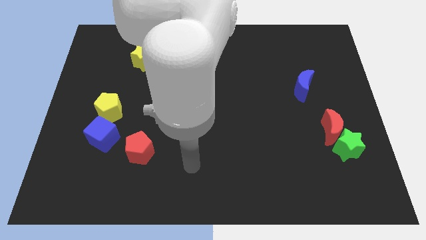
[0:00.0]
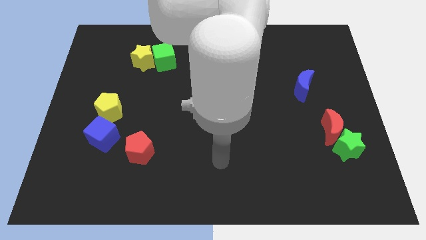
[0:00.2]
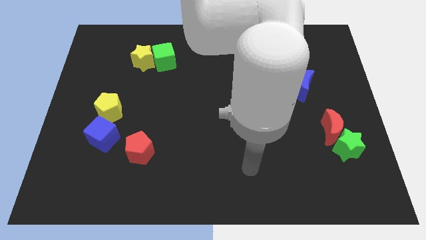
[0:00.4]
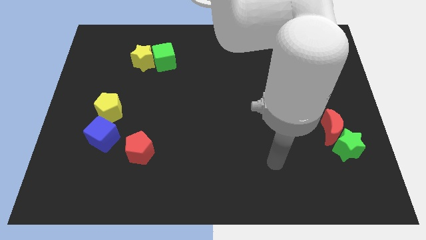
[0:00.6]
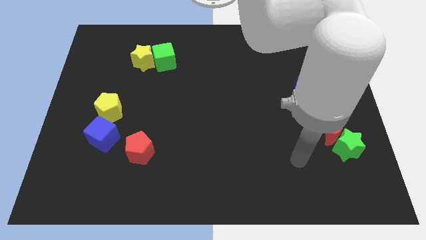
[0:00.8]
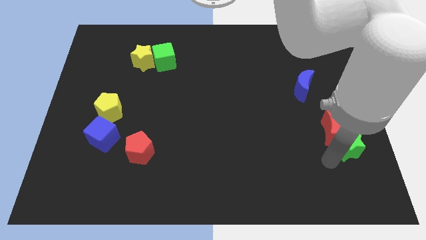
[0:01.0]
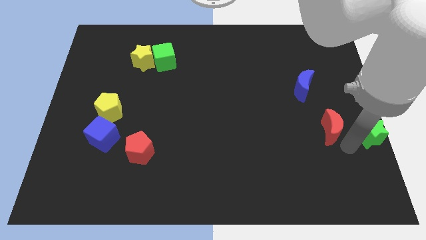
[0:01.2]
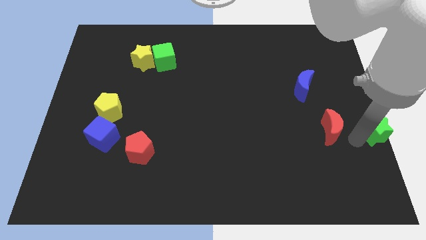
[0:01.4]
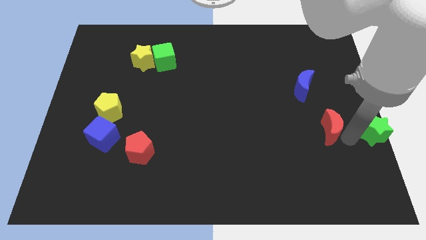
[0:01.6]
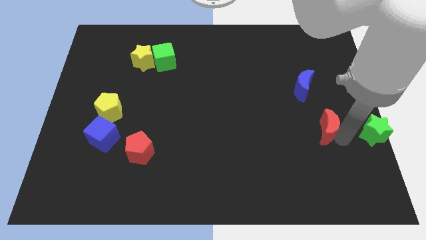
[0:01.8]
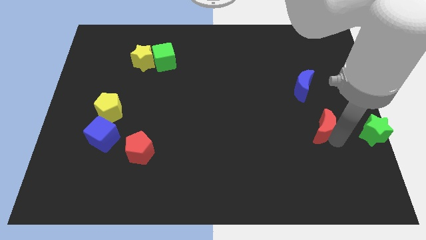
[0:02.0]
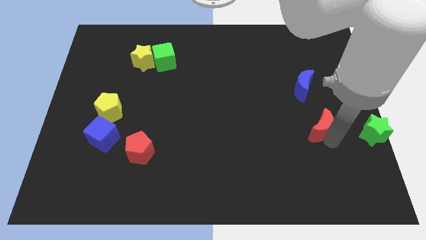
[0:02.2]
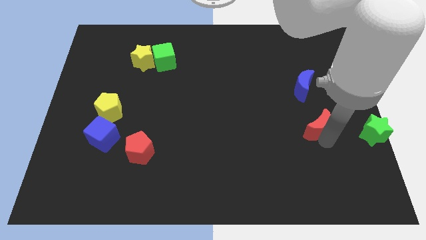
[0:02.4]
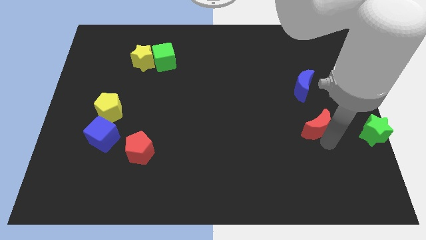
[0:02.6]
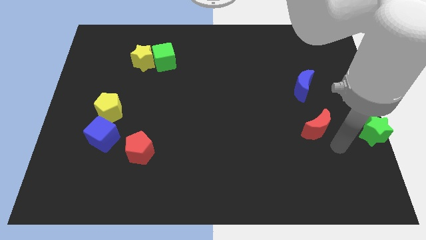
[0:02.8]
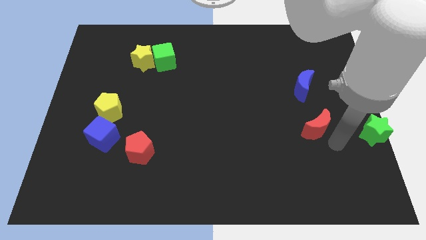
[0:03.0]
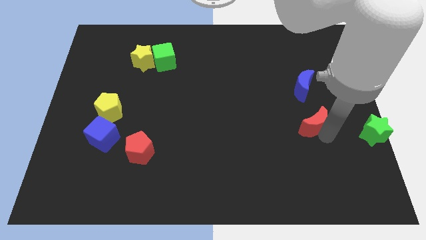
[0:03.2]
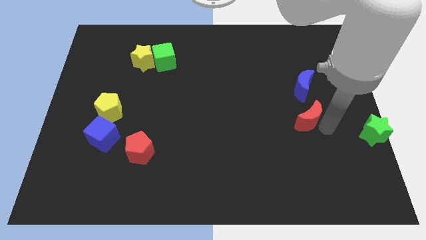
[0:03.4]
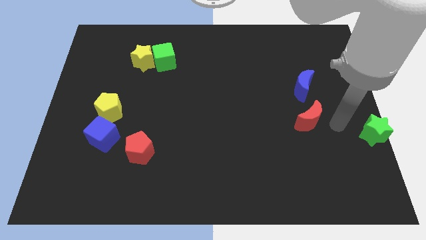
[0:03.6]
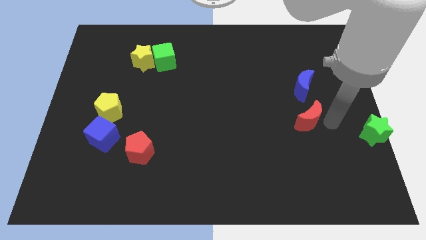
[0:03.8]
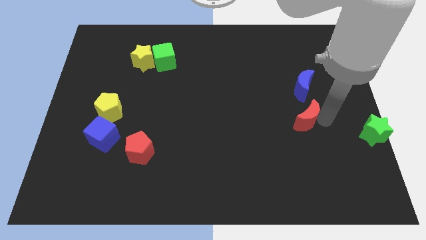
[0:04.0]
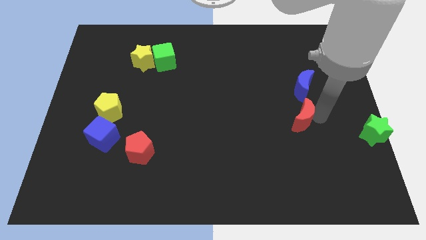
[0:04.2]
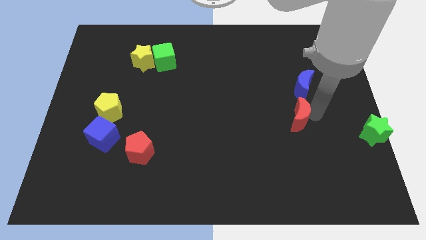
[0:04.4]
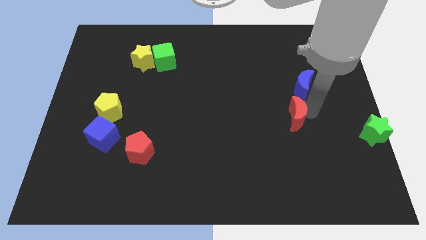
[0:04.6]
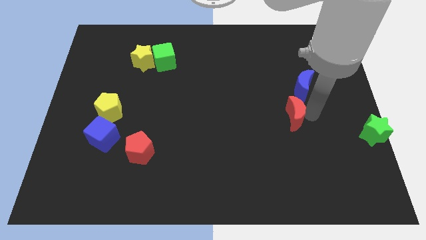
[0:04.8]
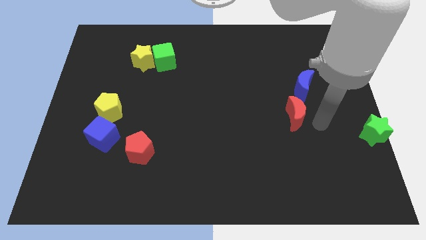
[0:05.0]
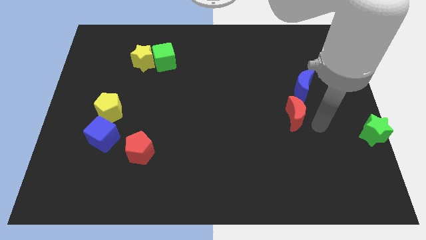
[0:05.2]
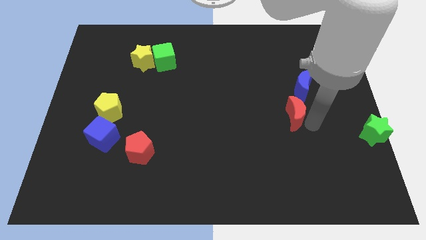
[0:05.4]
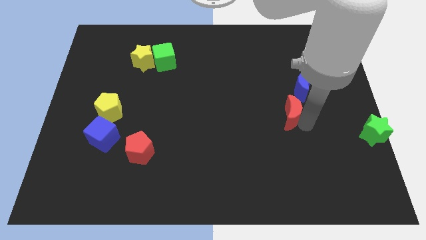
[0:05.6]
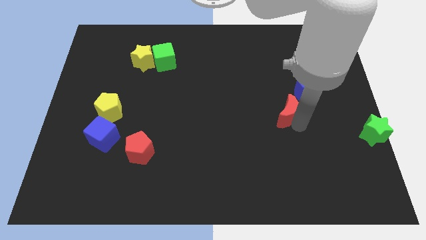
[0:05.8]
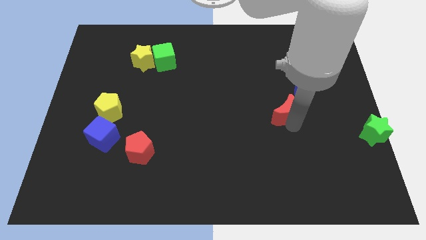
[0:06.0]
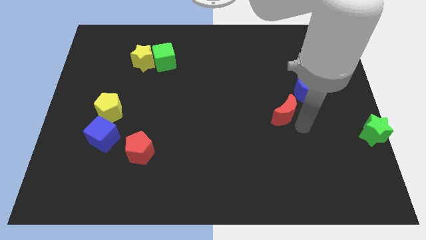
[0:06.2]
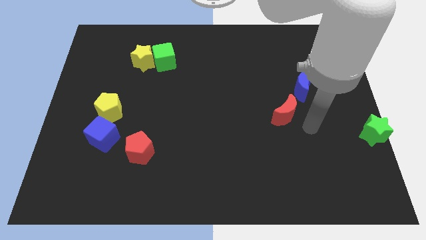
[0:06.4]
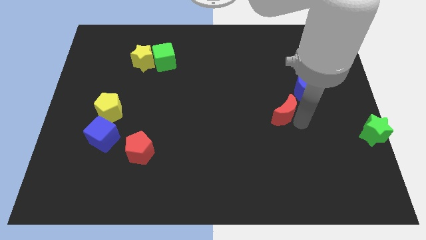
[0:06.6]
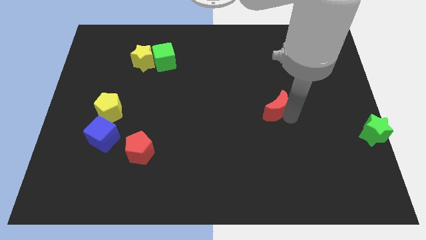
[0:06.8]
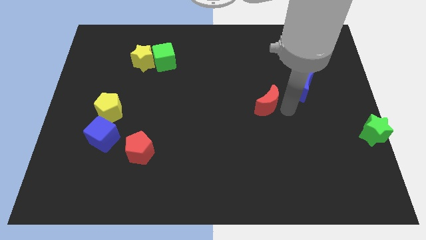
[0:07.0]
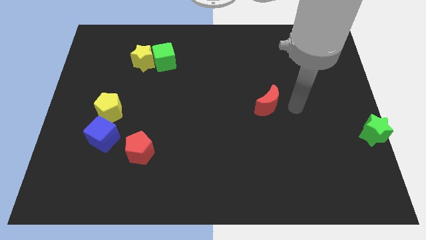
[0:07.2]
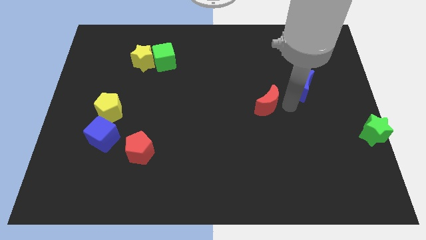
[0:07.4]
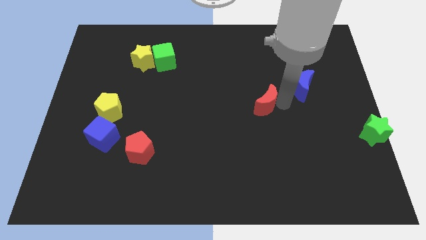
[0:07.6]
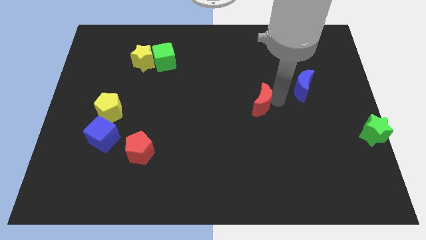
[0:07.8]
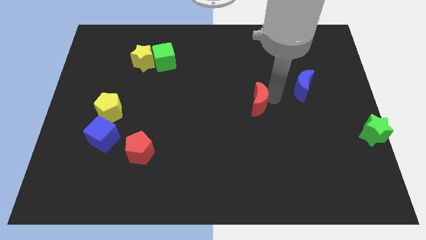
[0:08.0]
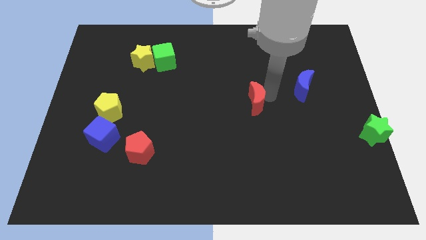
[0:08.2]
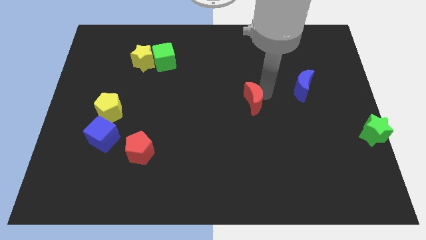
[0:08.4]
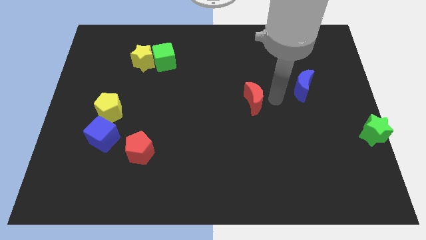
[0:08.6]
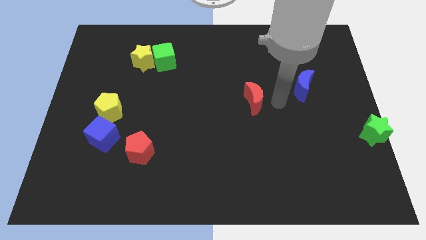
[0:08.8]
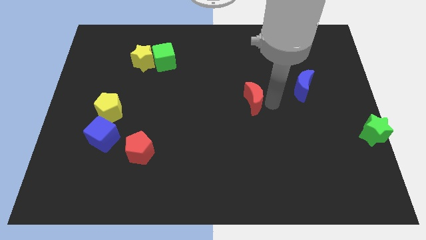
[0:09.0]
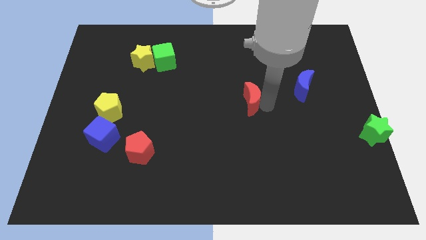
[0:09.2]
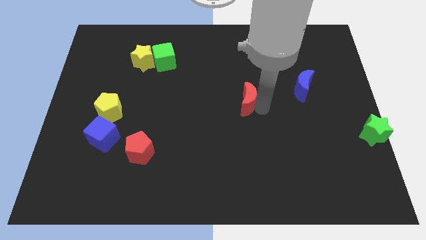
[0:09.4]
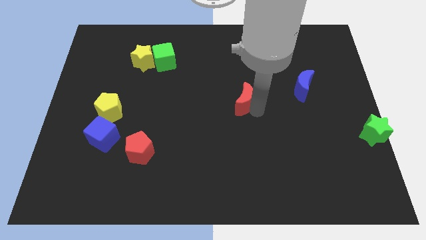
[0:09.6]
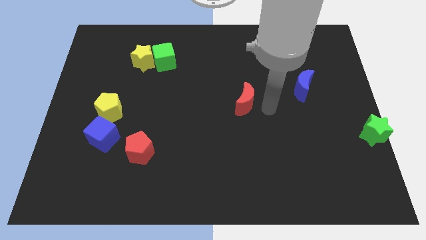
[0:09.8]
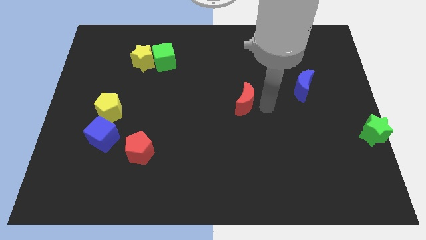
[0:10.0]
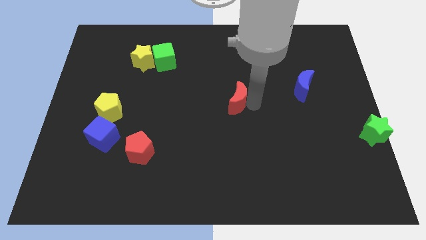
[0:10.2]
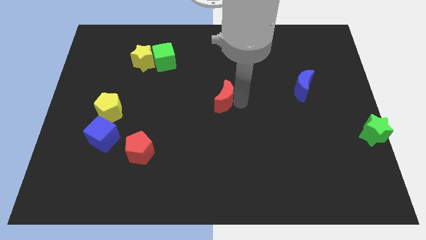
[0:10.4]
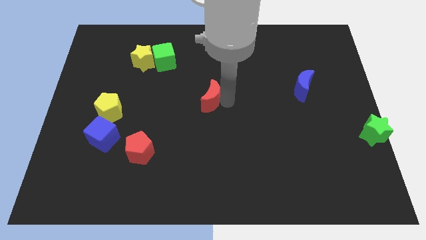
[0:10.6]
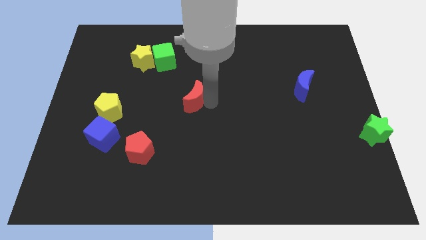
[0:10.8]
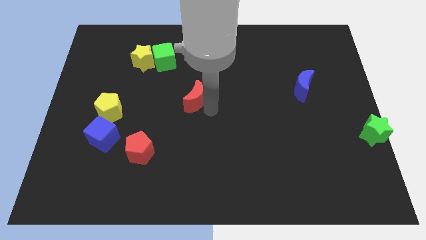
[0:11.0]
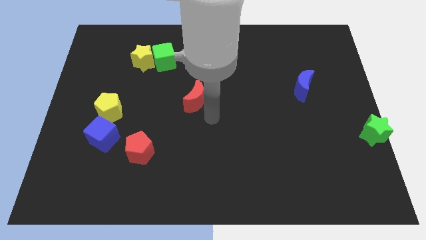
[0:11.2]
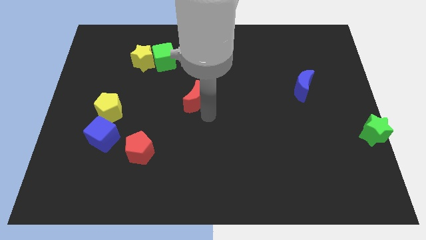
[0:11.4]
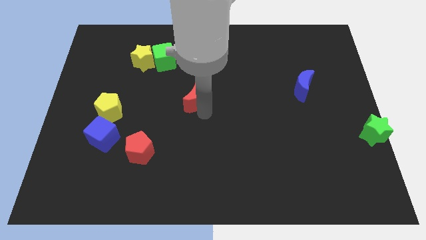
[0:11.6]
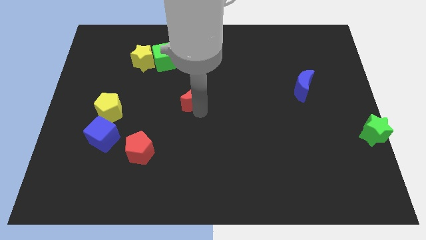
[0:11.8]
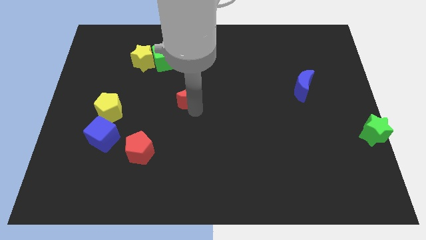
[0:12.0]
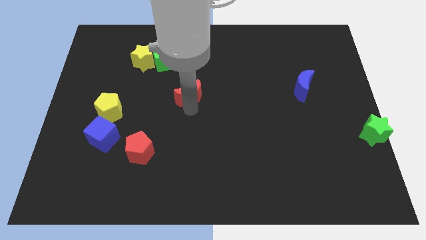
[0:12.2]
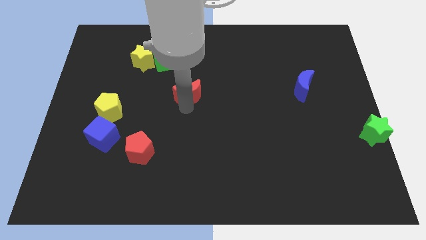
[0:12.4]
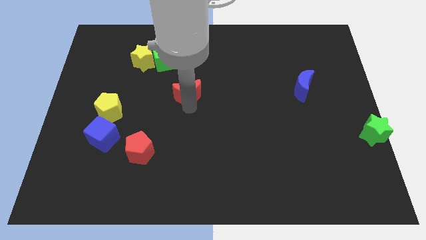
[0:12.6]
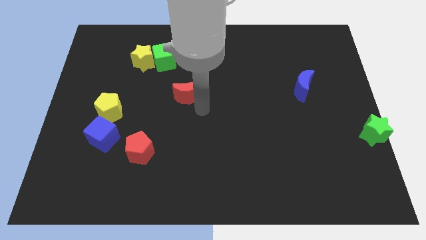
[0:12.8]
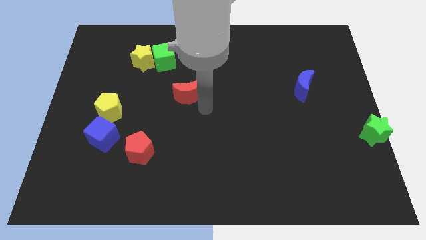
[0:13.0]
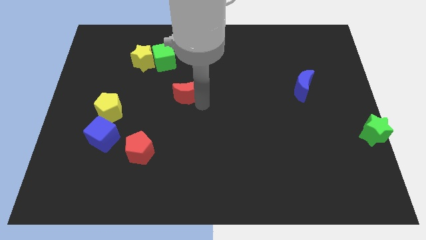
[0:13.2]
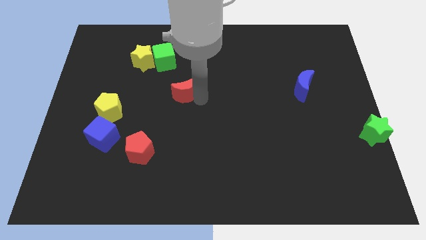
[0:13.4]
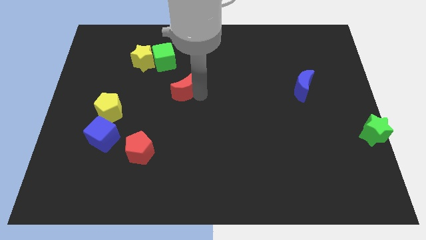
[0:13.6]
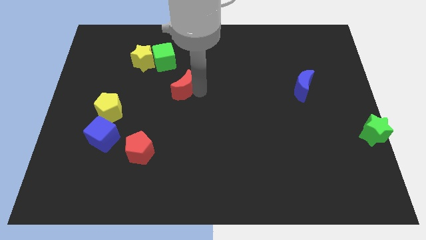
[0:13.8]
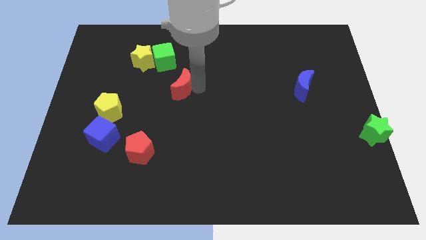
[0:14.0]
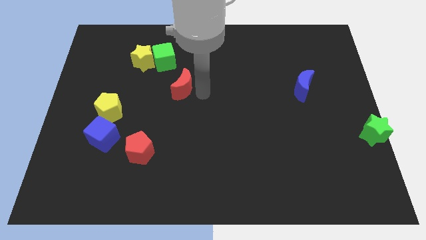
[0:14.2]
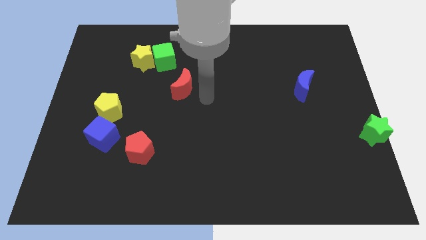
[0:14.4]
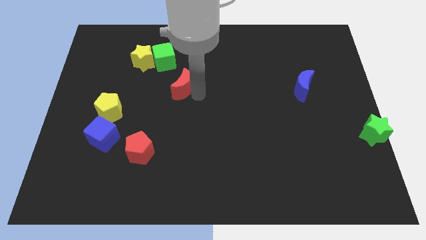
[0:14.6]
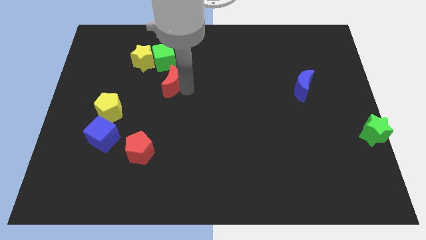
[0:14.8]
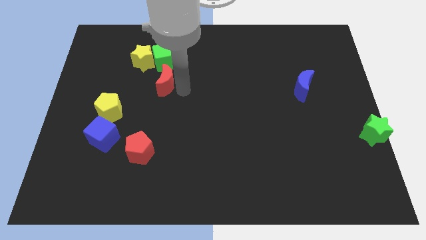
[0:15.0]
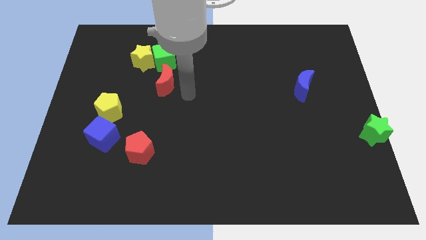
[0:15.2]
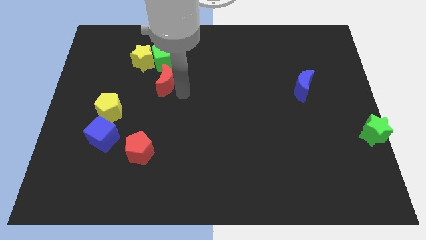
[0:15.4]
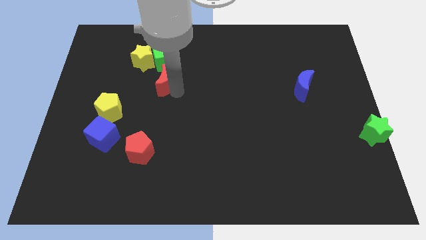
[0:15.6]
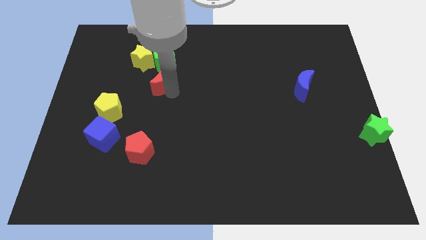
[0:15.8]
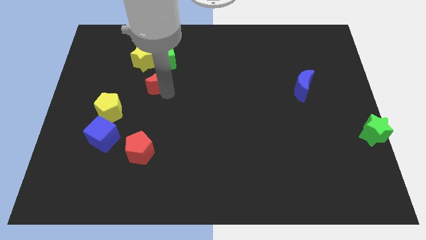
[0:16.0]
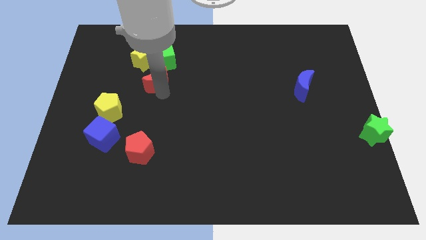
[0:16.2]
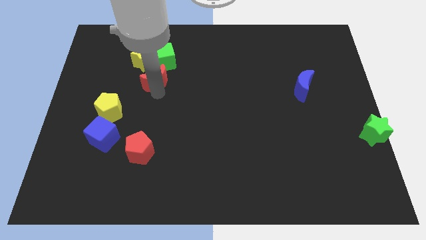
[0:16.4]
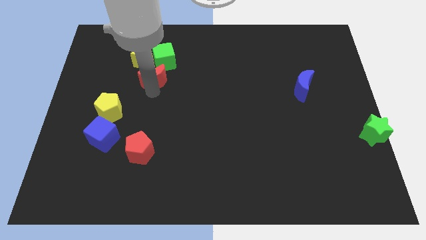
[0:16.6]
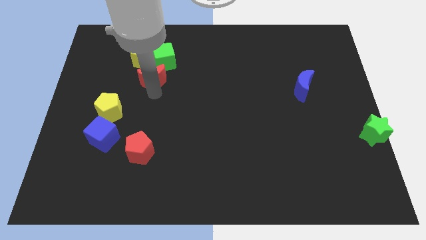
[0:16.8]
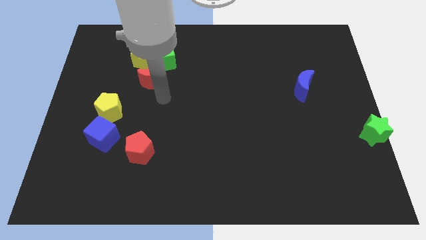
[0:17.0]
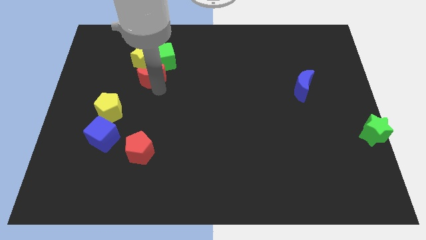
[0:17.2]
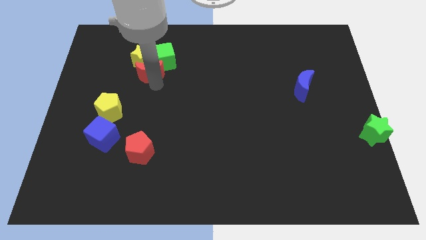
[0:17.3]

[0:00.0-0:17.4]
move the red moon close to the yellow star
